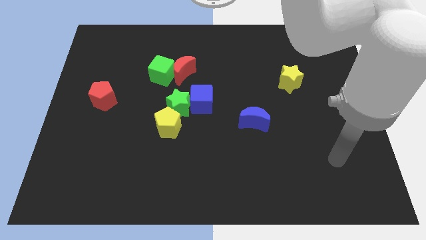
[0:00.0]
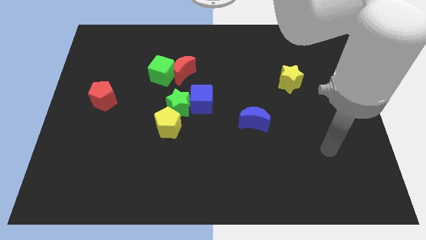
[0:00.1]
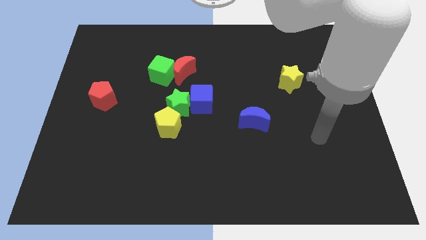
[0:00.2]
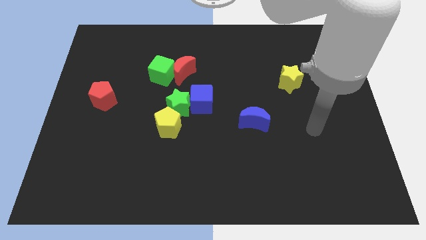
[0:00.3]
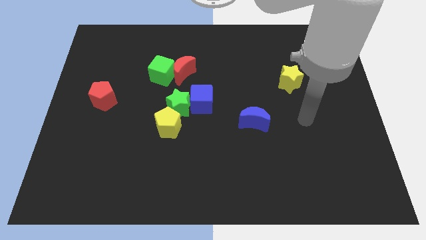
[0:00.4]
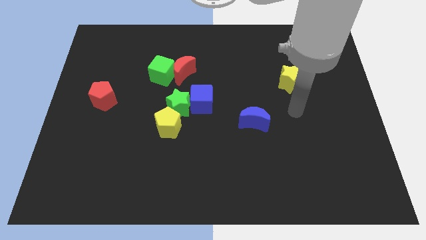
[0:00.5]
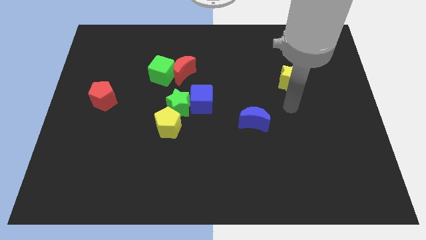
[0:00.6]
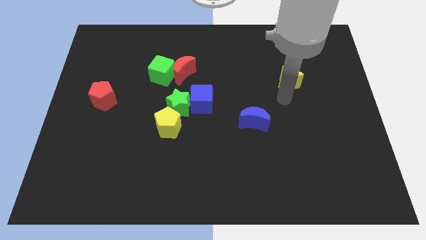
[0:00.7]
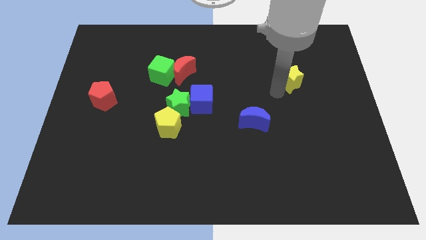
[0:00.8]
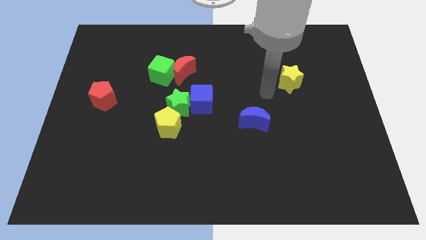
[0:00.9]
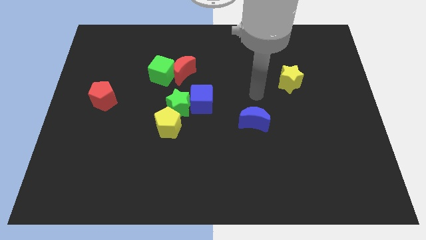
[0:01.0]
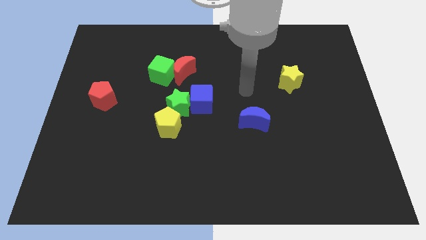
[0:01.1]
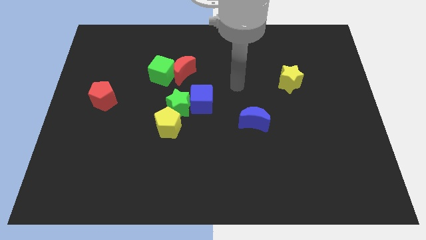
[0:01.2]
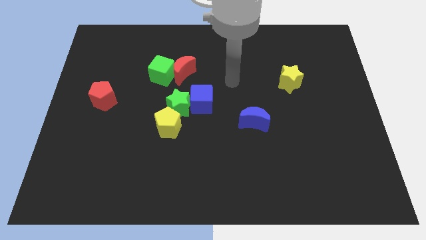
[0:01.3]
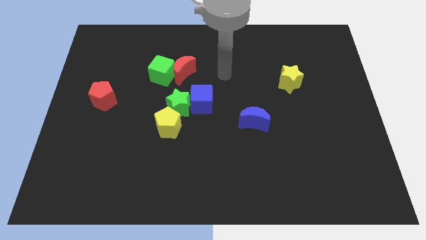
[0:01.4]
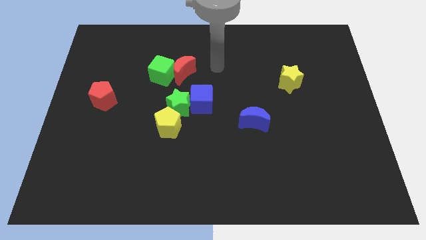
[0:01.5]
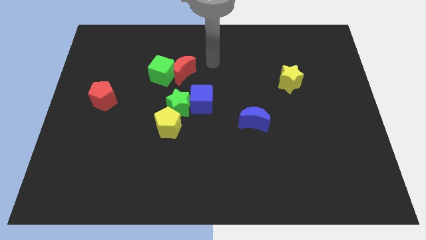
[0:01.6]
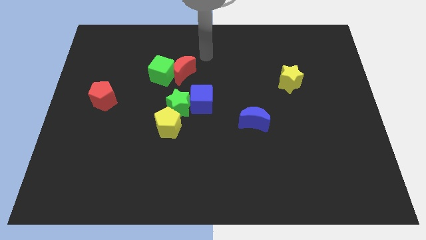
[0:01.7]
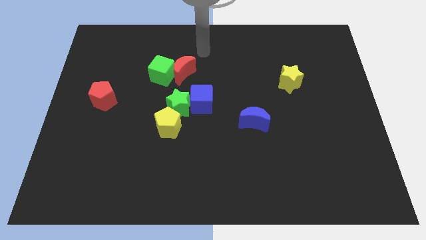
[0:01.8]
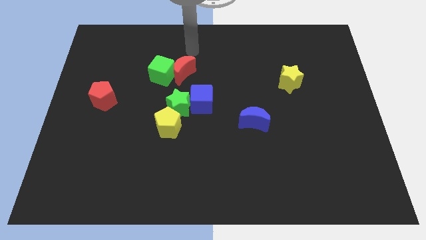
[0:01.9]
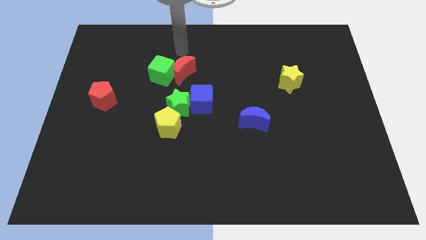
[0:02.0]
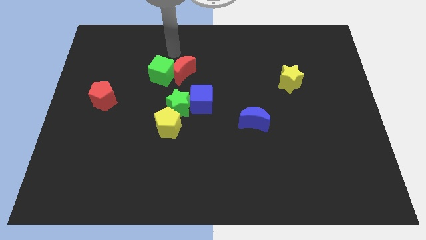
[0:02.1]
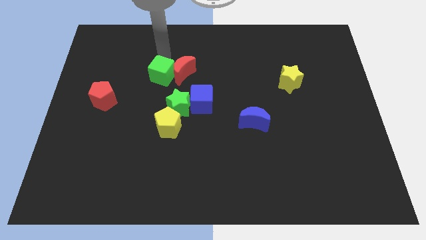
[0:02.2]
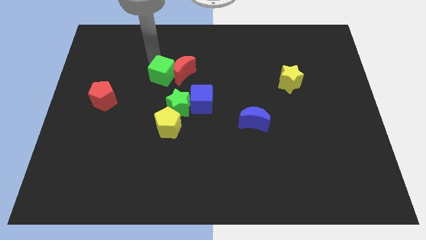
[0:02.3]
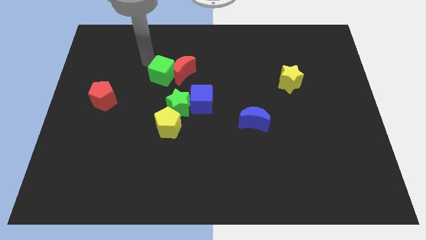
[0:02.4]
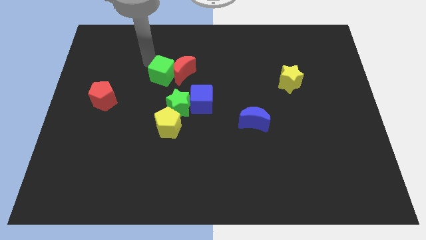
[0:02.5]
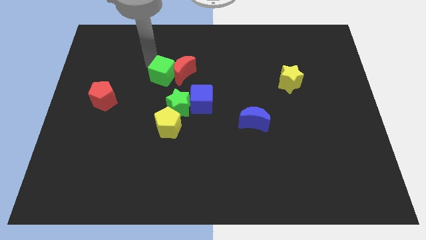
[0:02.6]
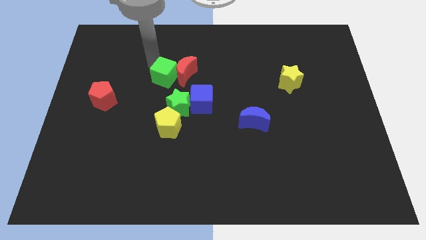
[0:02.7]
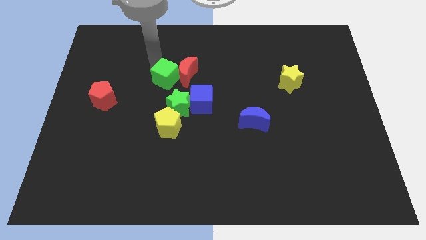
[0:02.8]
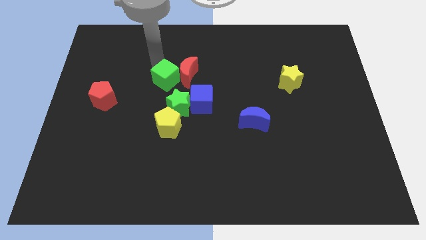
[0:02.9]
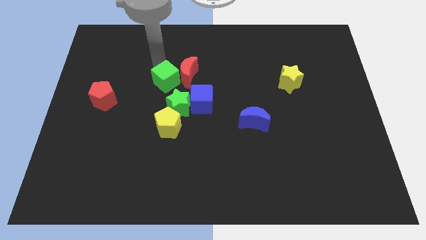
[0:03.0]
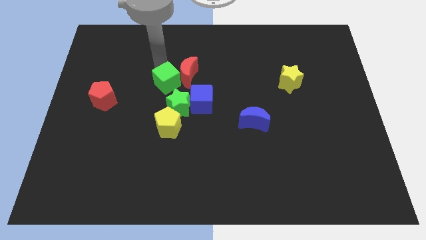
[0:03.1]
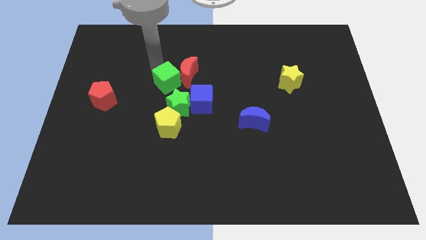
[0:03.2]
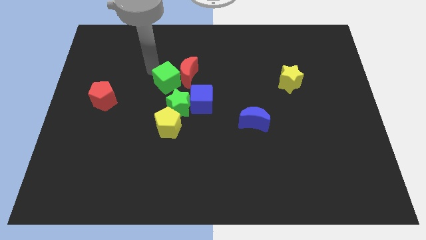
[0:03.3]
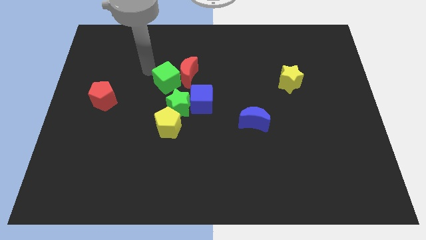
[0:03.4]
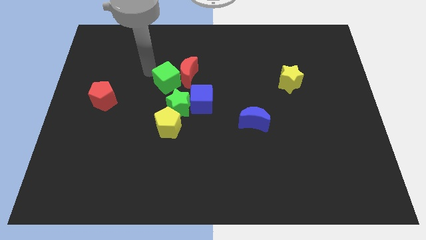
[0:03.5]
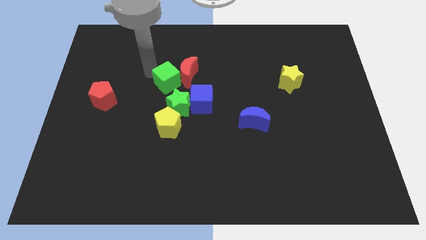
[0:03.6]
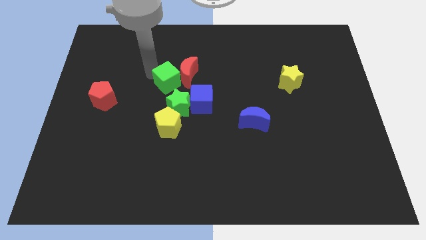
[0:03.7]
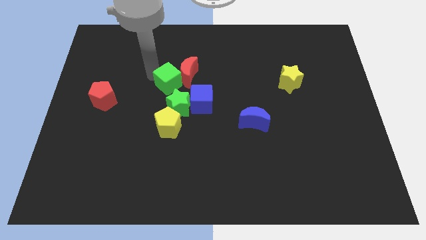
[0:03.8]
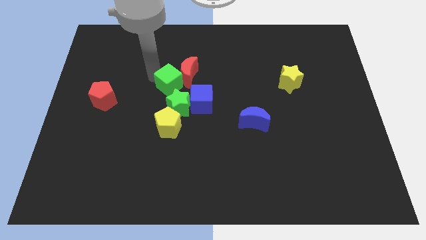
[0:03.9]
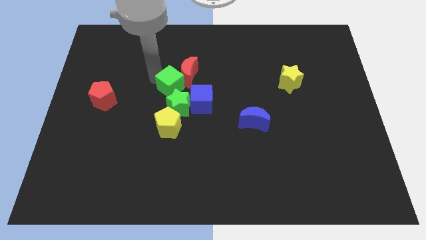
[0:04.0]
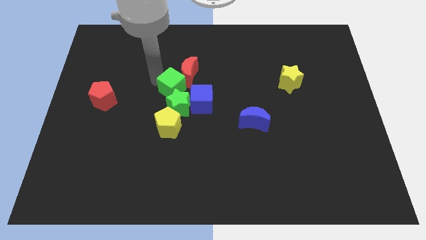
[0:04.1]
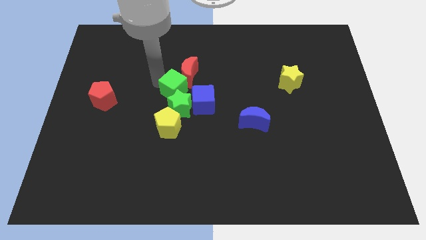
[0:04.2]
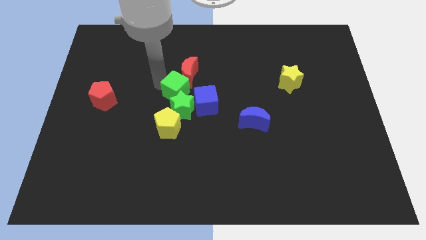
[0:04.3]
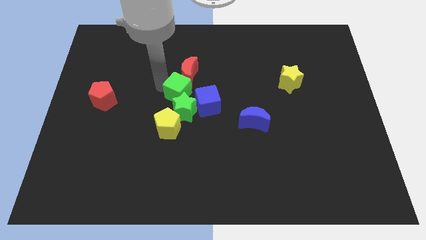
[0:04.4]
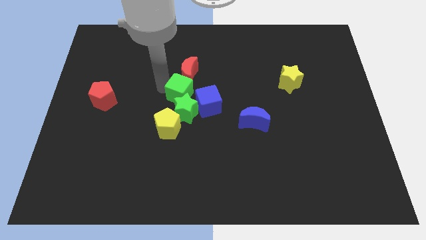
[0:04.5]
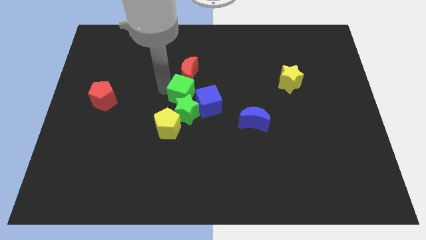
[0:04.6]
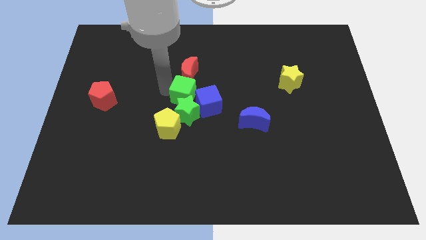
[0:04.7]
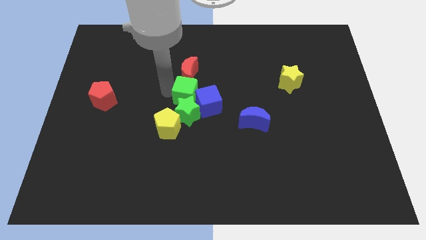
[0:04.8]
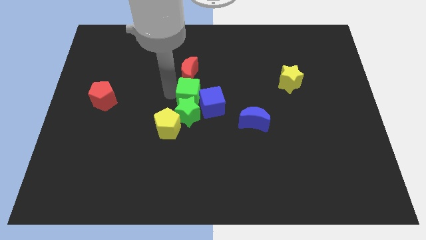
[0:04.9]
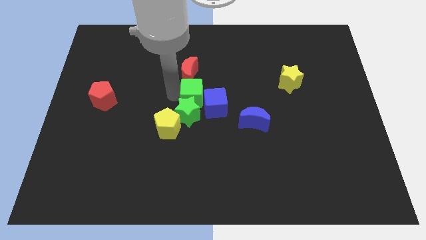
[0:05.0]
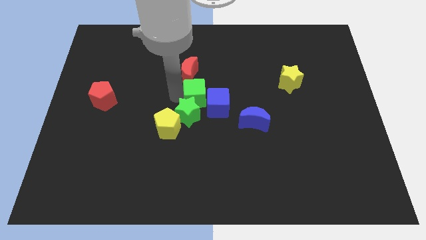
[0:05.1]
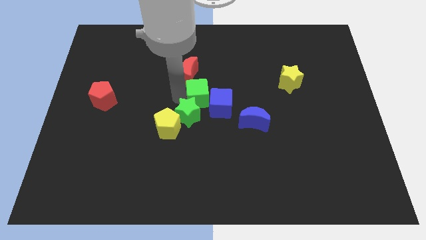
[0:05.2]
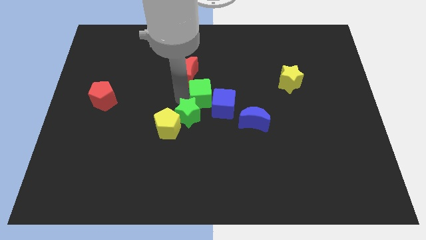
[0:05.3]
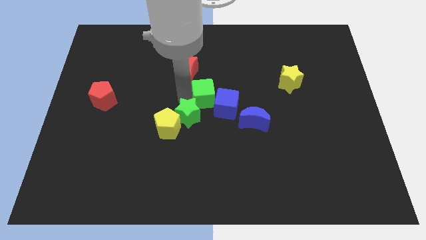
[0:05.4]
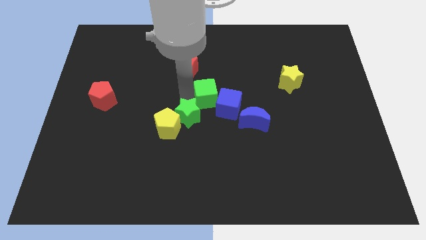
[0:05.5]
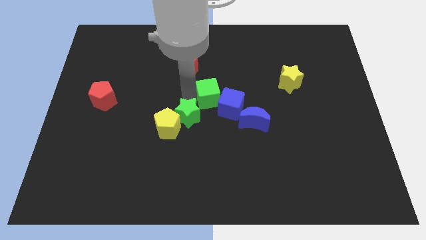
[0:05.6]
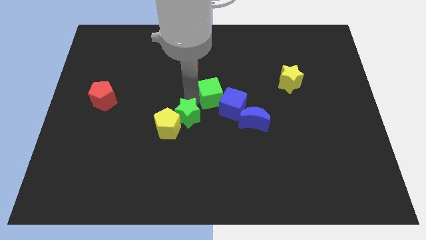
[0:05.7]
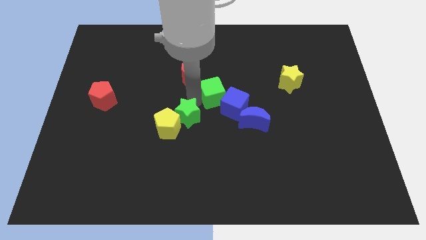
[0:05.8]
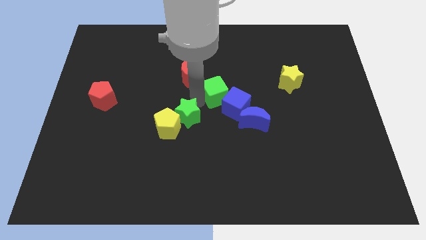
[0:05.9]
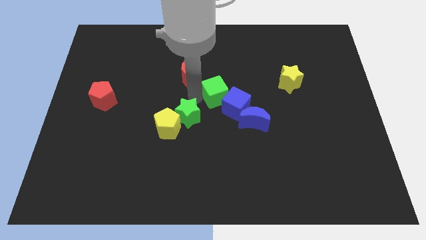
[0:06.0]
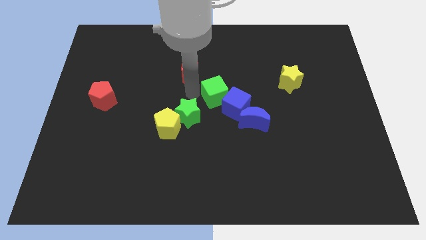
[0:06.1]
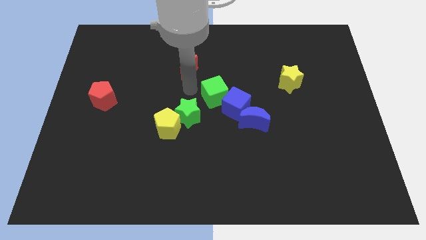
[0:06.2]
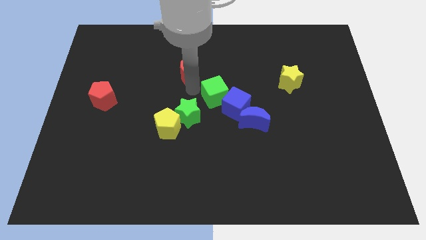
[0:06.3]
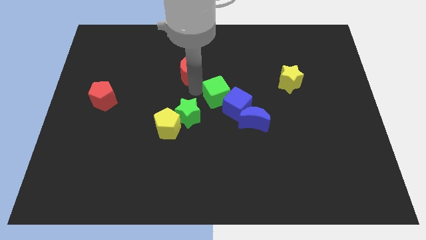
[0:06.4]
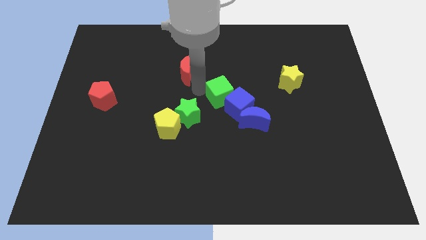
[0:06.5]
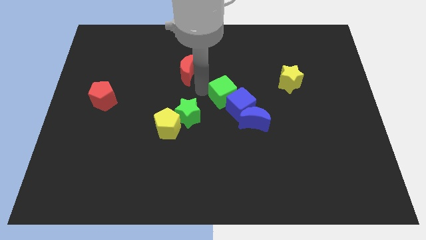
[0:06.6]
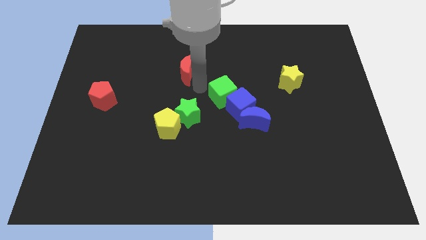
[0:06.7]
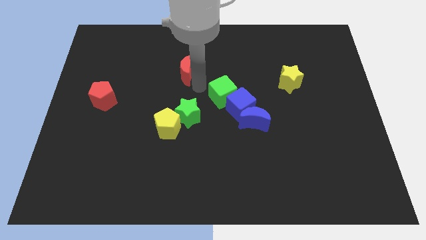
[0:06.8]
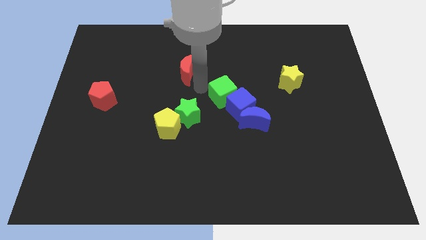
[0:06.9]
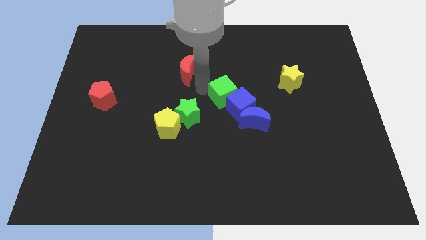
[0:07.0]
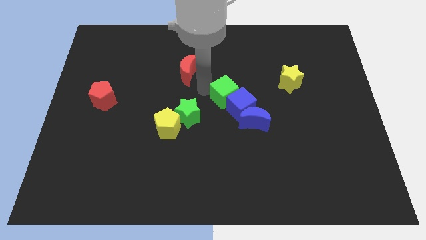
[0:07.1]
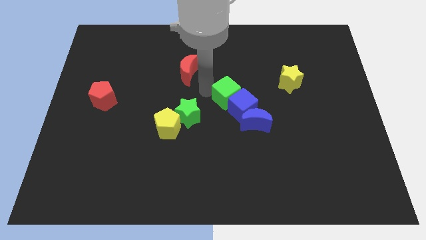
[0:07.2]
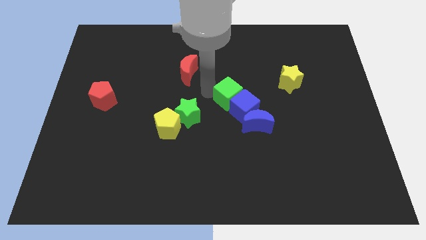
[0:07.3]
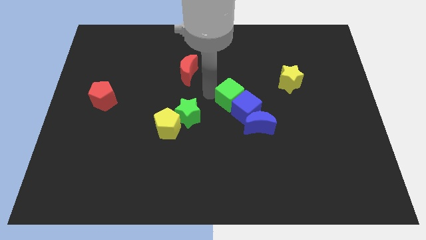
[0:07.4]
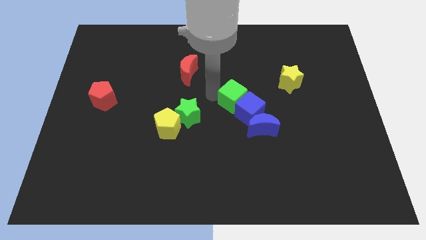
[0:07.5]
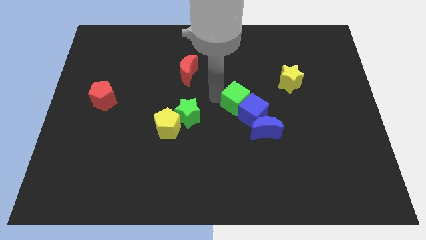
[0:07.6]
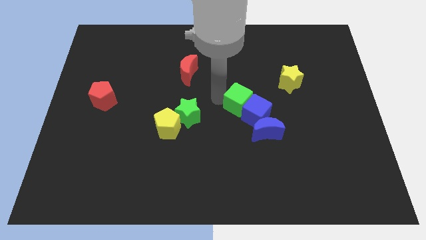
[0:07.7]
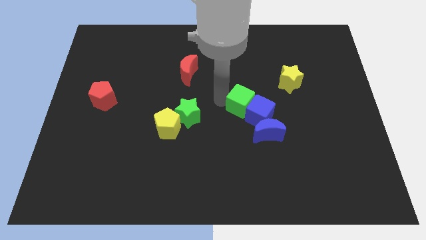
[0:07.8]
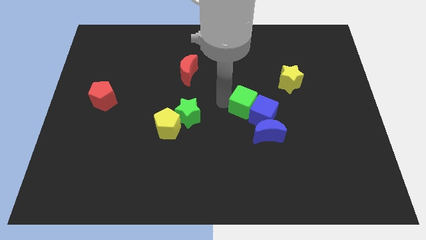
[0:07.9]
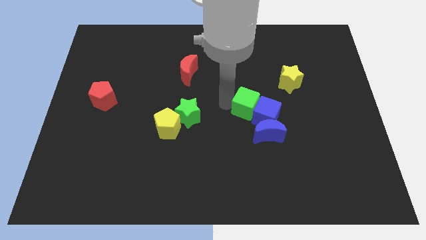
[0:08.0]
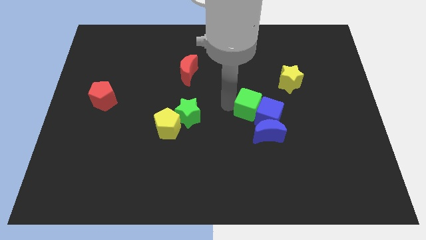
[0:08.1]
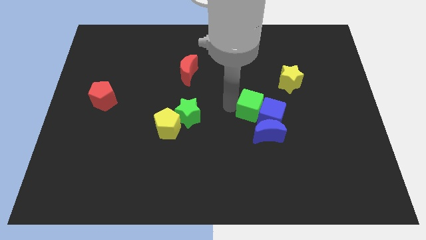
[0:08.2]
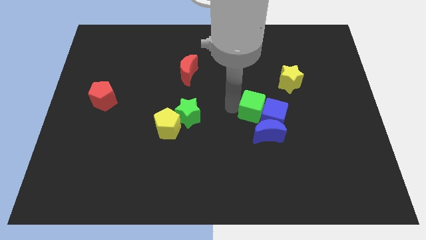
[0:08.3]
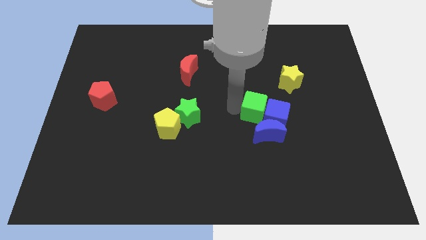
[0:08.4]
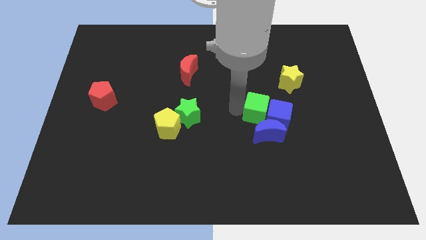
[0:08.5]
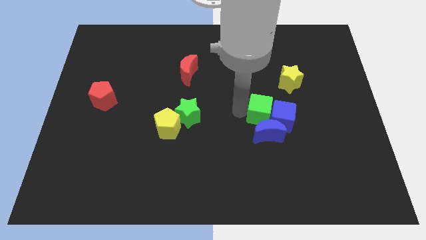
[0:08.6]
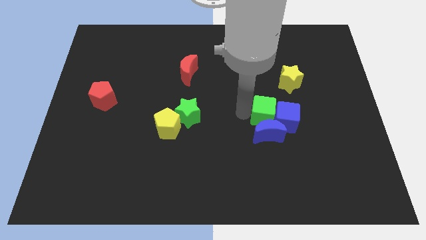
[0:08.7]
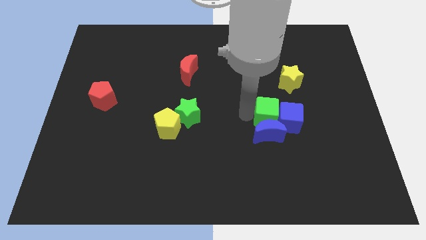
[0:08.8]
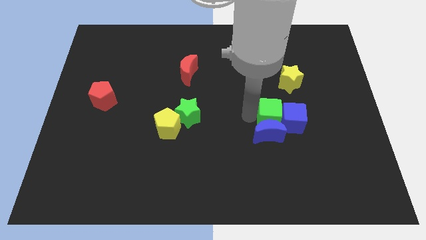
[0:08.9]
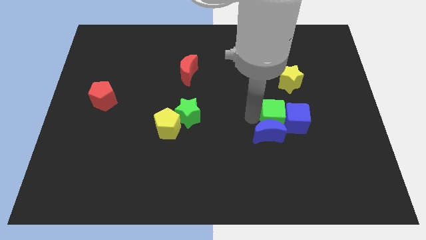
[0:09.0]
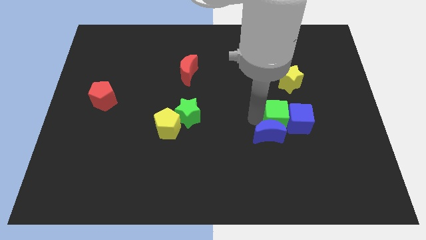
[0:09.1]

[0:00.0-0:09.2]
slide the green cube to the bottom side of the yellow star
